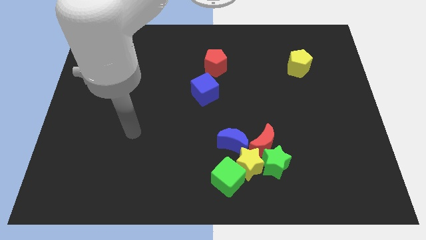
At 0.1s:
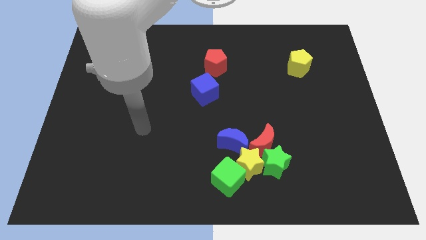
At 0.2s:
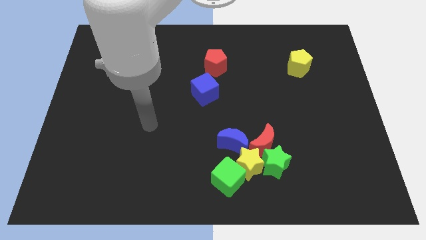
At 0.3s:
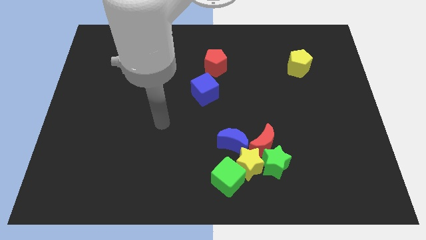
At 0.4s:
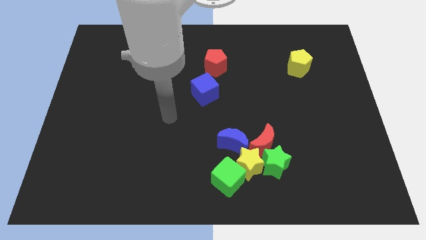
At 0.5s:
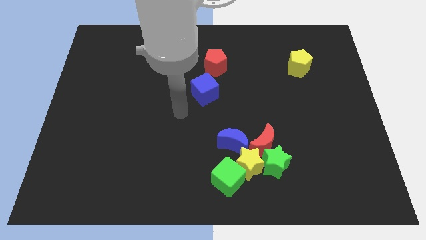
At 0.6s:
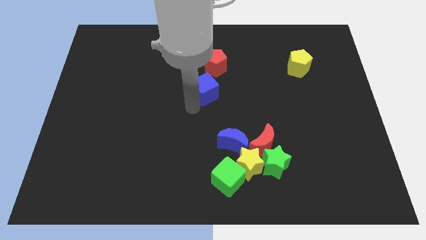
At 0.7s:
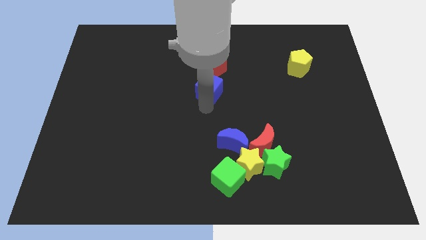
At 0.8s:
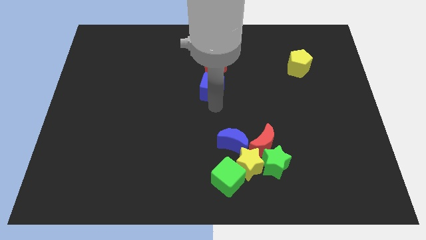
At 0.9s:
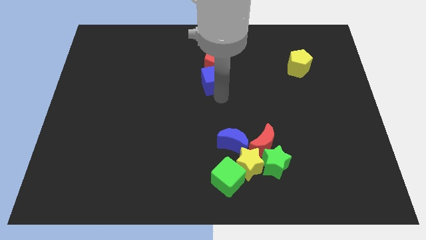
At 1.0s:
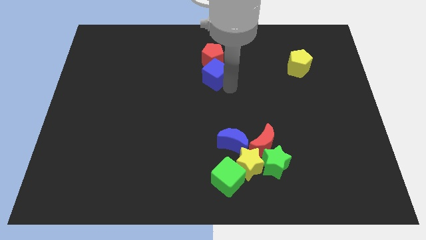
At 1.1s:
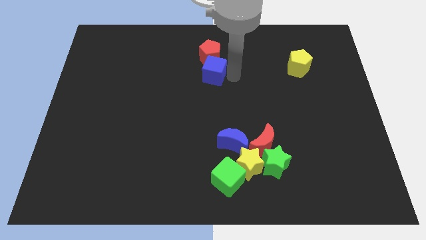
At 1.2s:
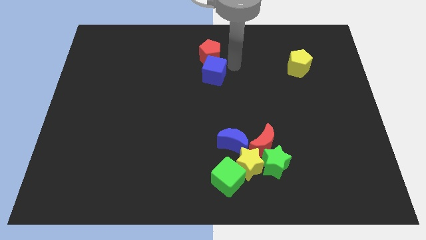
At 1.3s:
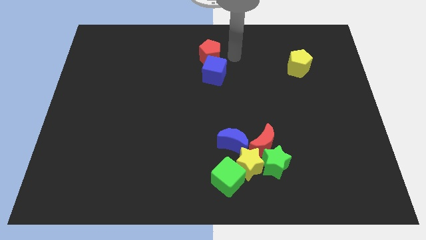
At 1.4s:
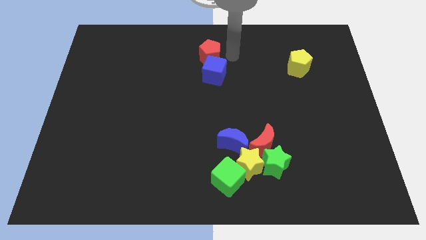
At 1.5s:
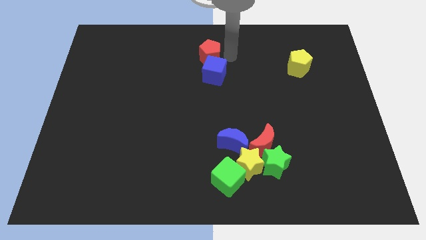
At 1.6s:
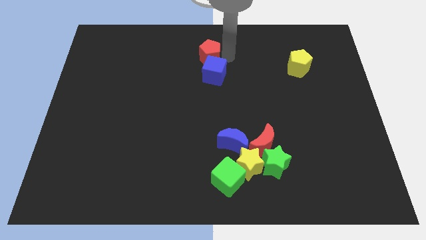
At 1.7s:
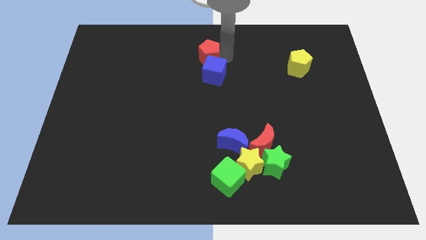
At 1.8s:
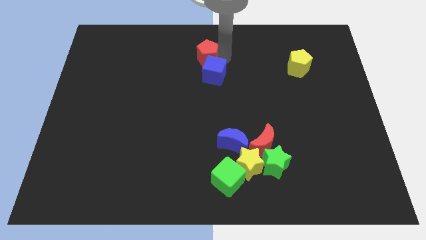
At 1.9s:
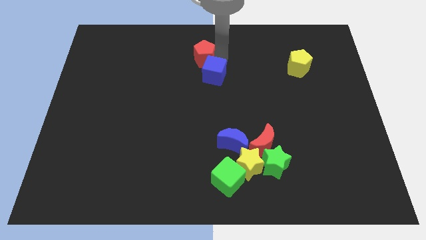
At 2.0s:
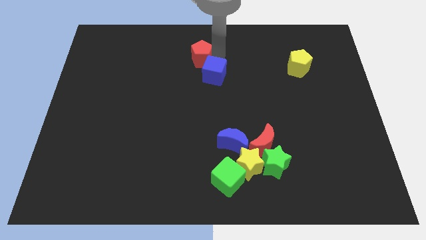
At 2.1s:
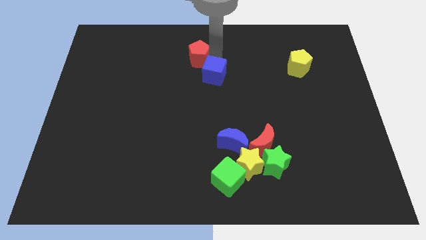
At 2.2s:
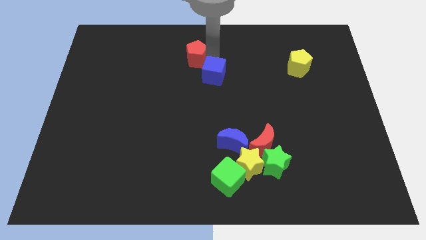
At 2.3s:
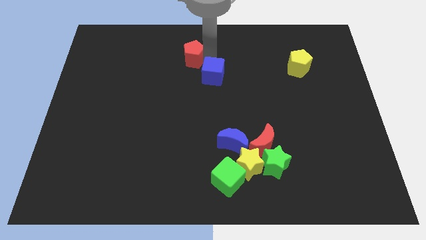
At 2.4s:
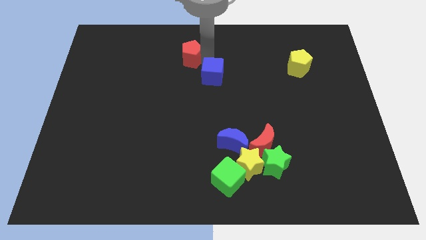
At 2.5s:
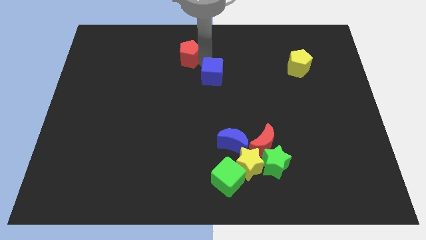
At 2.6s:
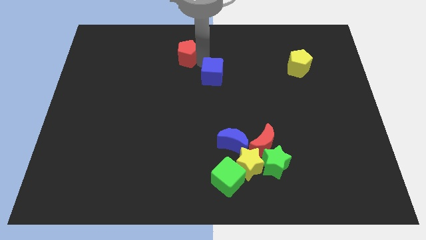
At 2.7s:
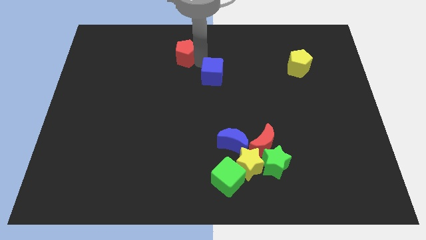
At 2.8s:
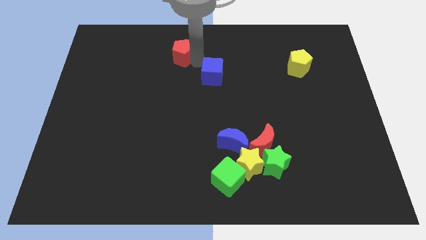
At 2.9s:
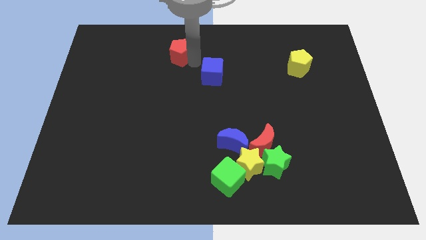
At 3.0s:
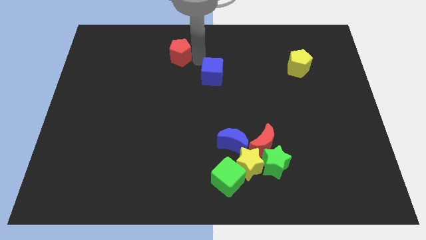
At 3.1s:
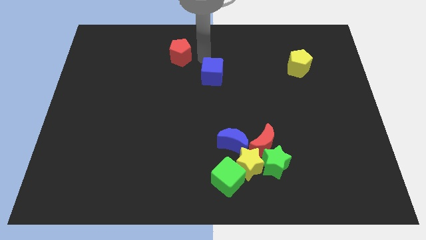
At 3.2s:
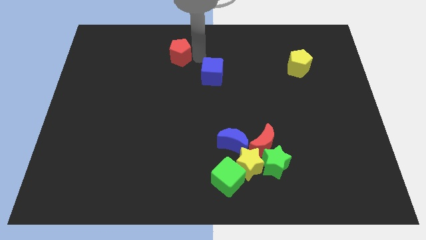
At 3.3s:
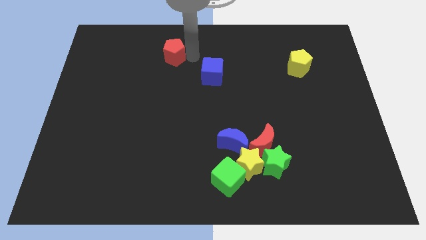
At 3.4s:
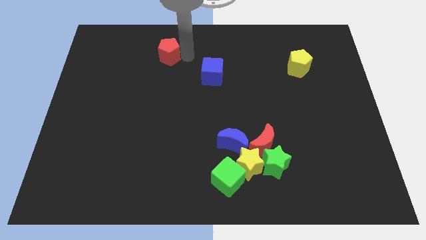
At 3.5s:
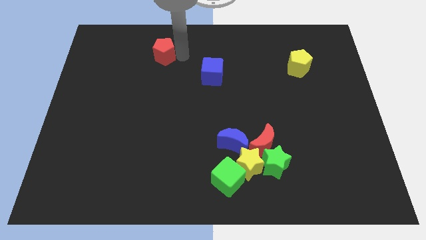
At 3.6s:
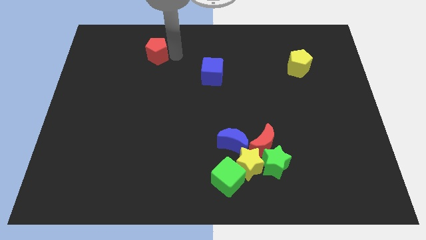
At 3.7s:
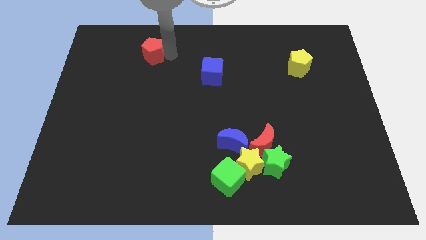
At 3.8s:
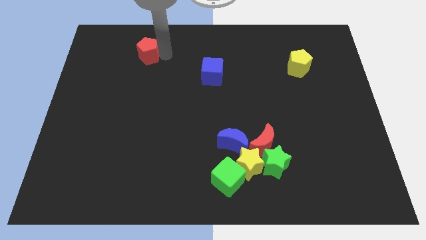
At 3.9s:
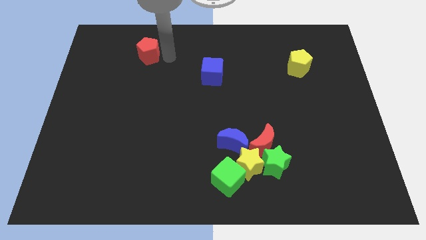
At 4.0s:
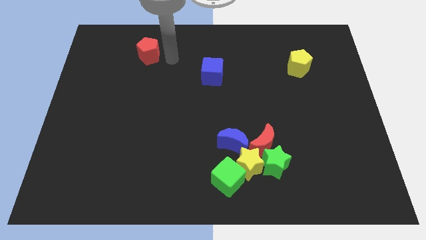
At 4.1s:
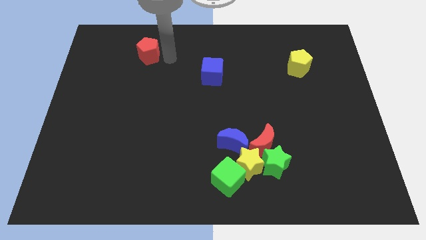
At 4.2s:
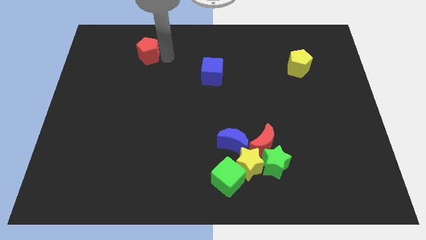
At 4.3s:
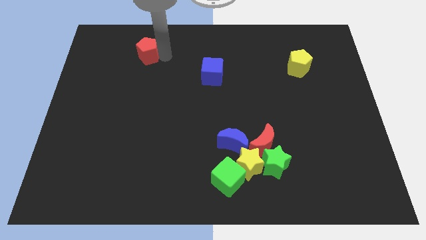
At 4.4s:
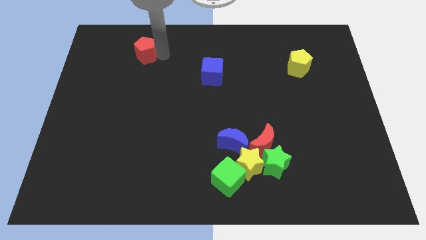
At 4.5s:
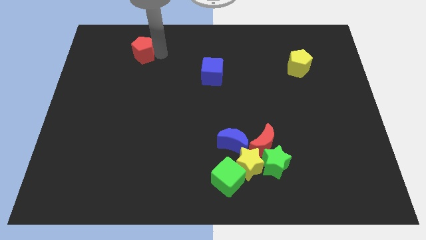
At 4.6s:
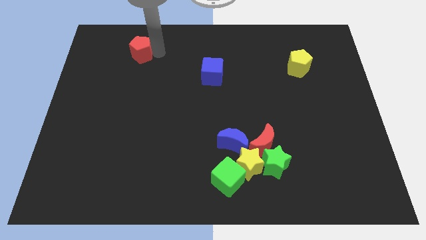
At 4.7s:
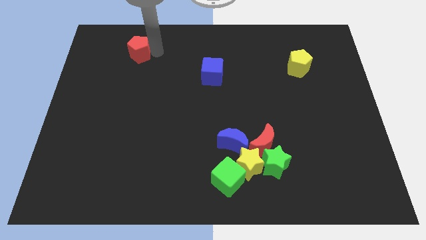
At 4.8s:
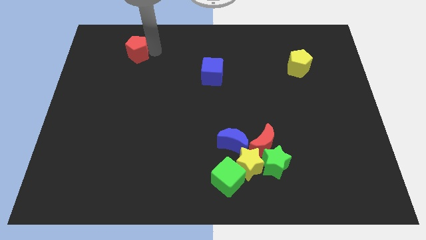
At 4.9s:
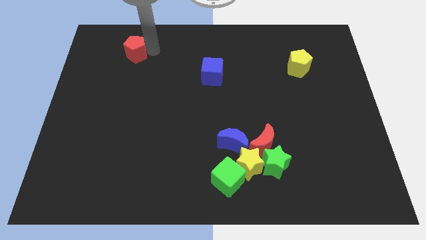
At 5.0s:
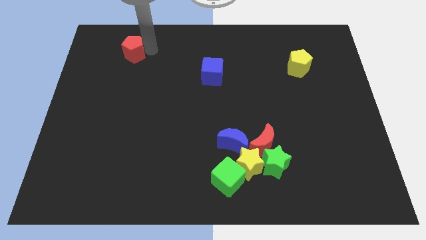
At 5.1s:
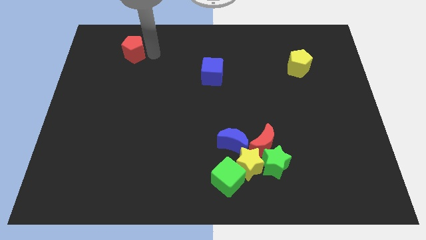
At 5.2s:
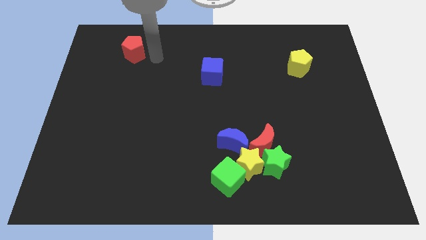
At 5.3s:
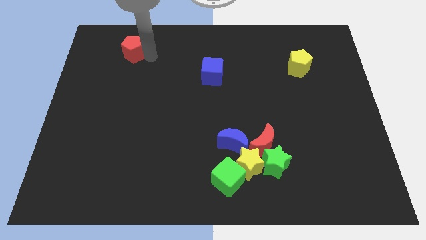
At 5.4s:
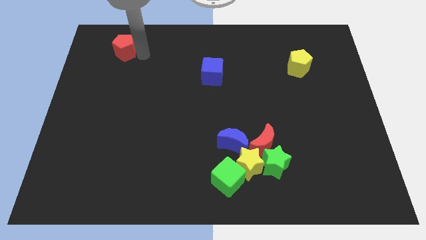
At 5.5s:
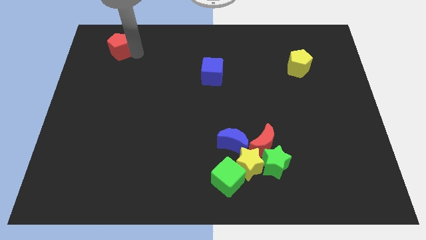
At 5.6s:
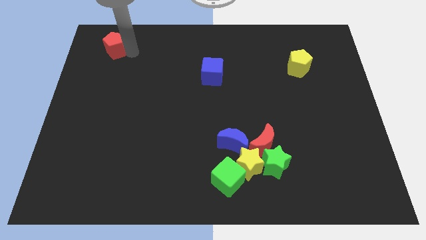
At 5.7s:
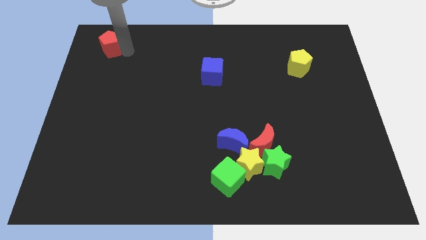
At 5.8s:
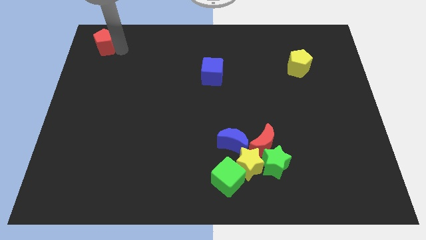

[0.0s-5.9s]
put the red pentagon to the top left of the board

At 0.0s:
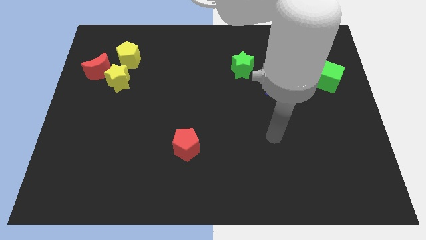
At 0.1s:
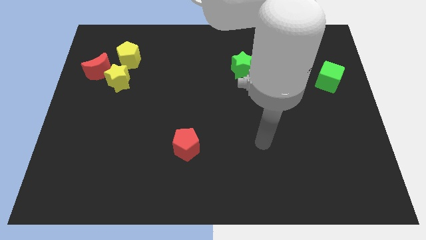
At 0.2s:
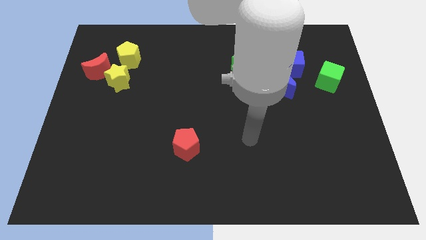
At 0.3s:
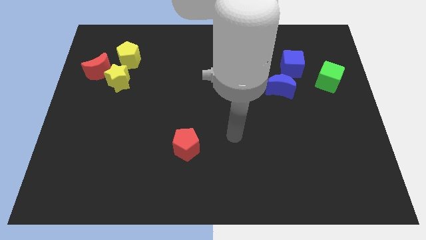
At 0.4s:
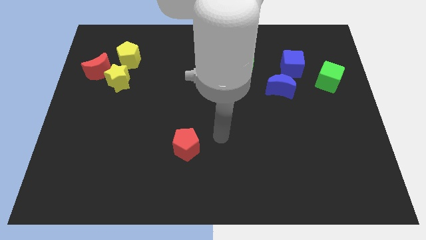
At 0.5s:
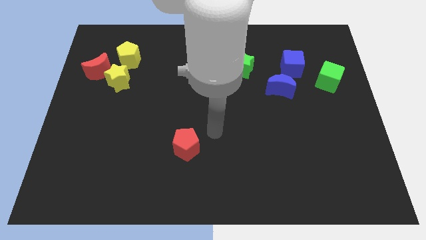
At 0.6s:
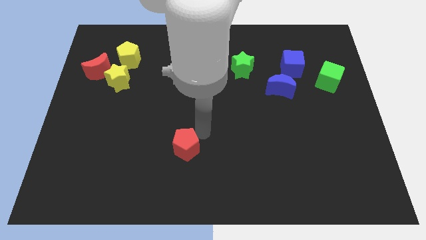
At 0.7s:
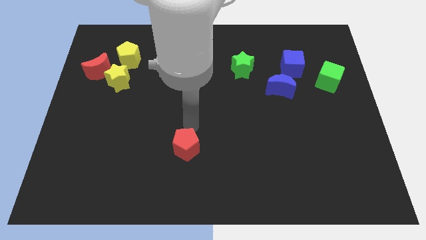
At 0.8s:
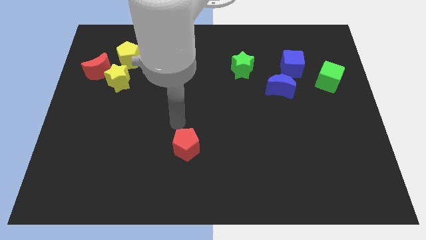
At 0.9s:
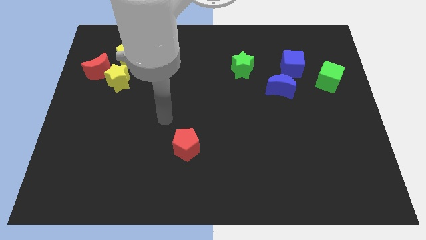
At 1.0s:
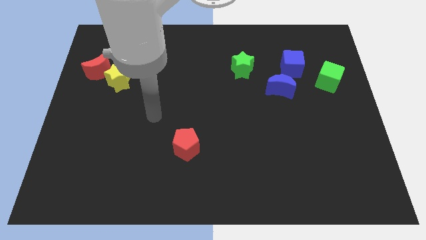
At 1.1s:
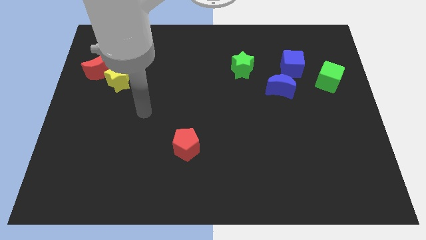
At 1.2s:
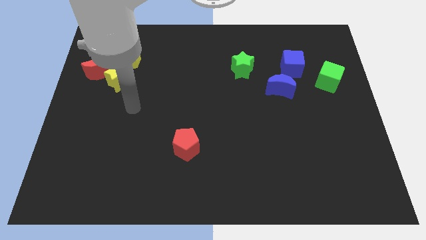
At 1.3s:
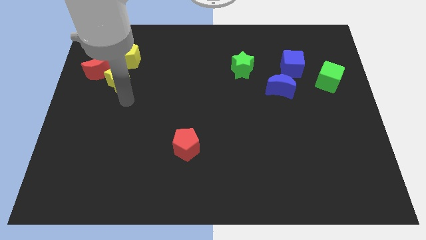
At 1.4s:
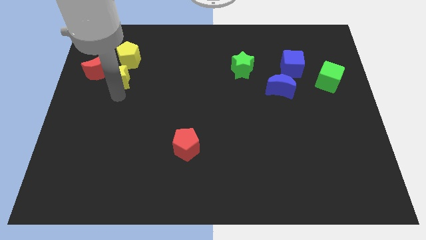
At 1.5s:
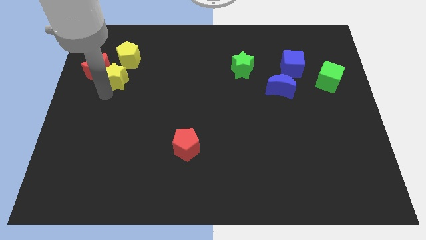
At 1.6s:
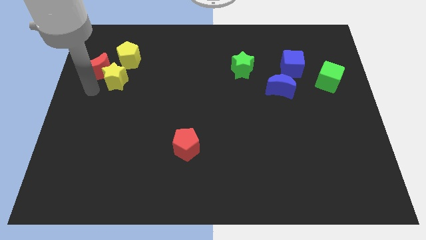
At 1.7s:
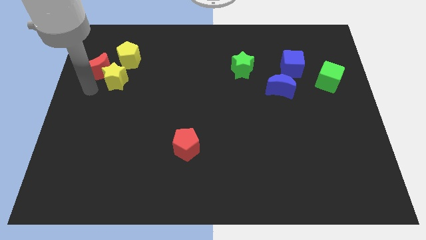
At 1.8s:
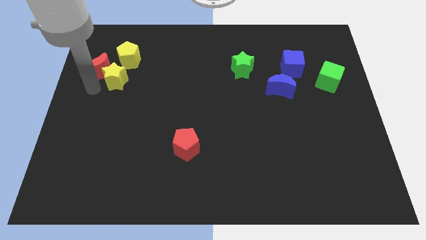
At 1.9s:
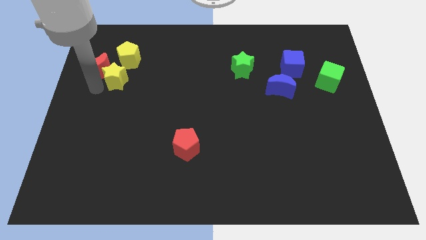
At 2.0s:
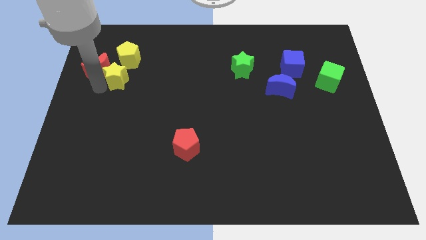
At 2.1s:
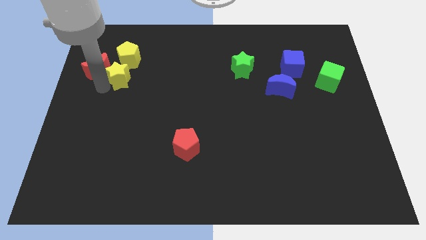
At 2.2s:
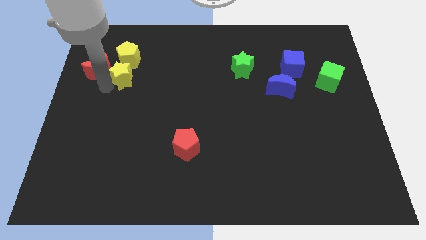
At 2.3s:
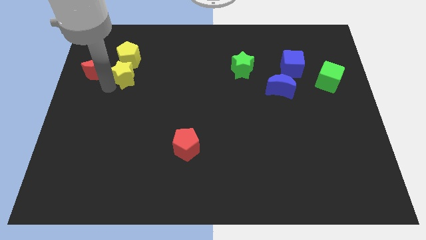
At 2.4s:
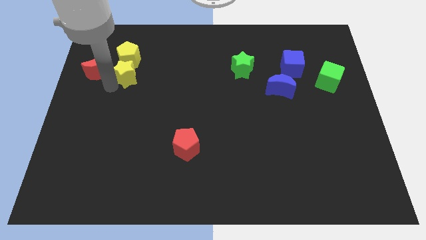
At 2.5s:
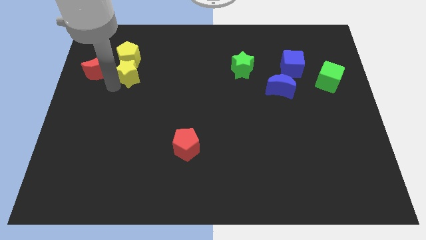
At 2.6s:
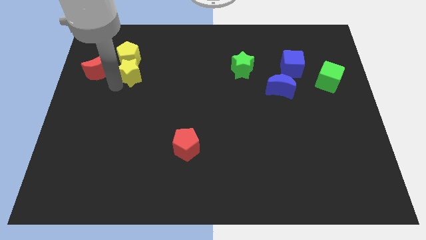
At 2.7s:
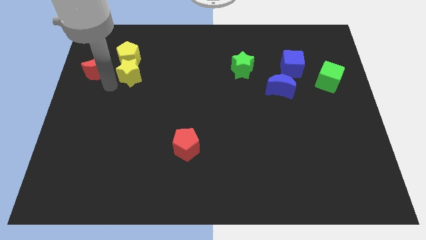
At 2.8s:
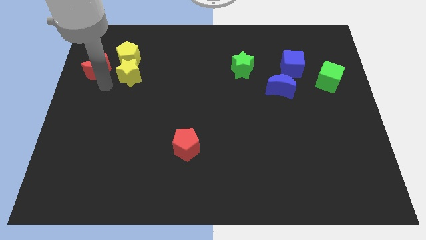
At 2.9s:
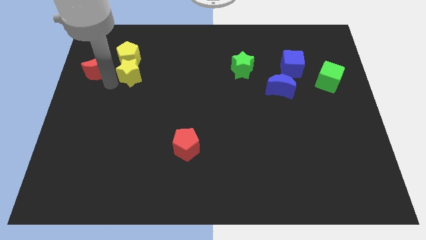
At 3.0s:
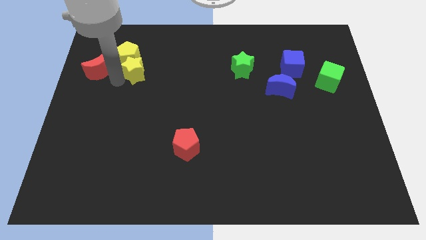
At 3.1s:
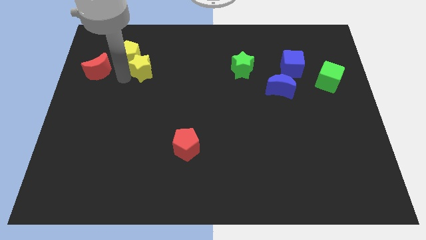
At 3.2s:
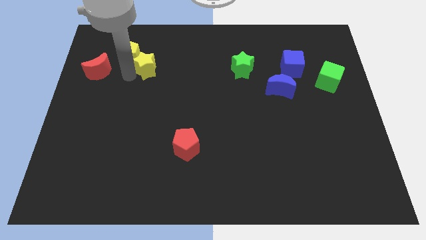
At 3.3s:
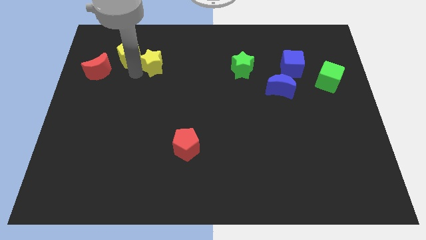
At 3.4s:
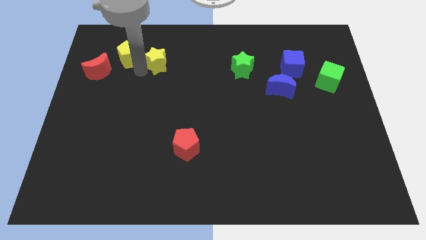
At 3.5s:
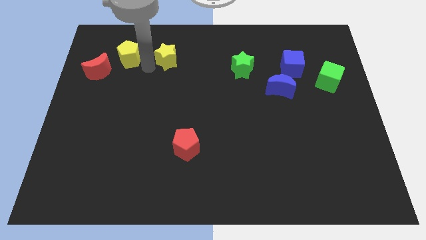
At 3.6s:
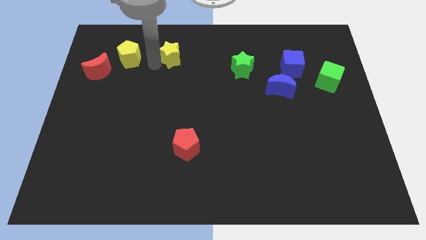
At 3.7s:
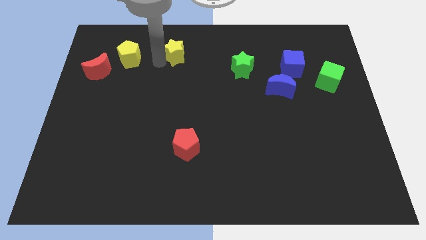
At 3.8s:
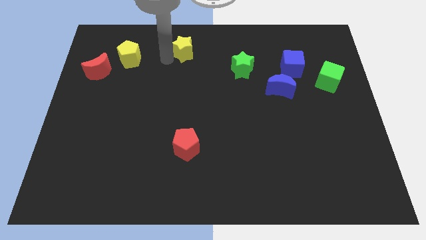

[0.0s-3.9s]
put the yellow star to the towards your base
